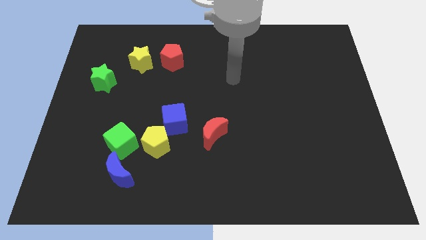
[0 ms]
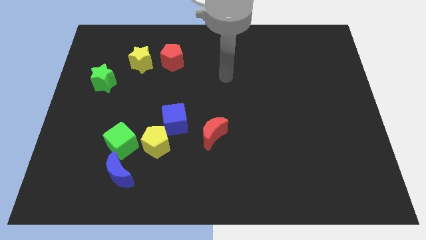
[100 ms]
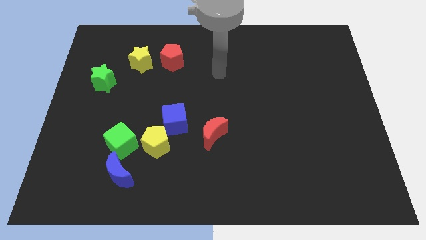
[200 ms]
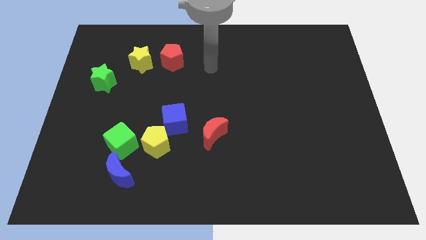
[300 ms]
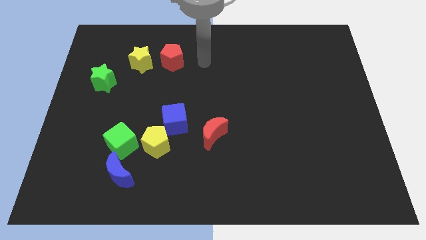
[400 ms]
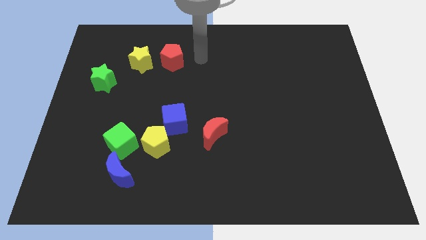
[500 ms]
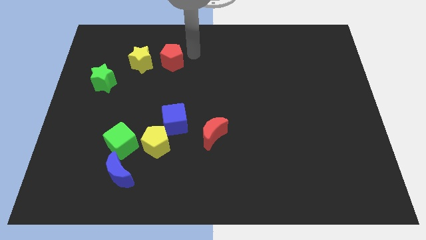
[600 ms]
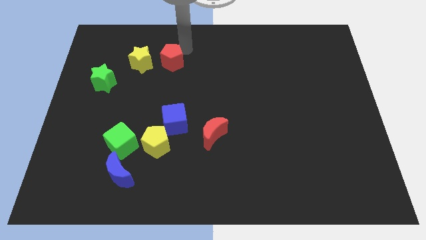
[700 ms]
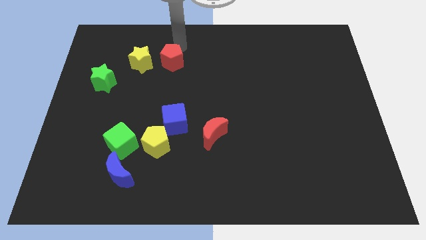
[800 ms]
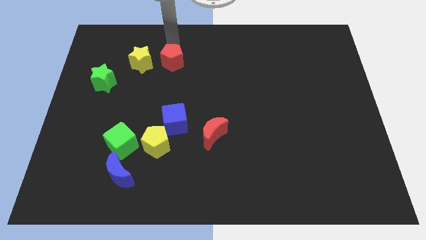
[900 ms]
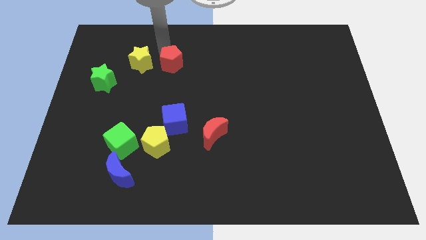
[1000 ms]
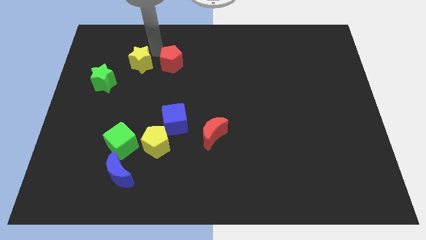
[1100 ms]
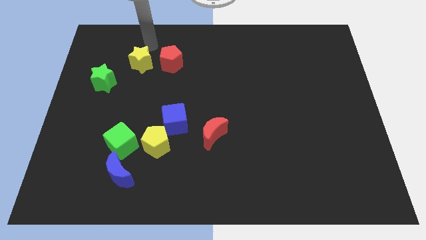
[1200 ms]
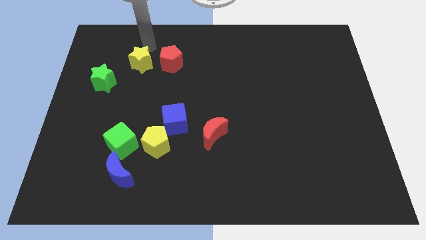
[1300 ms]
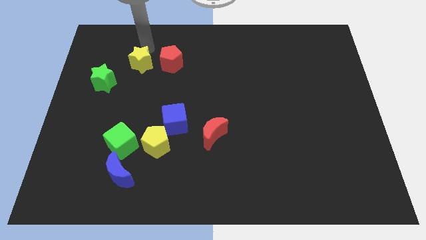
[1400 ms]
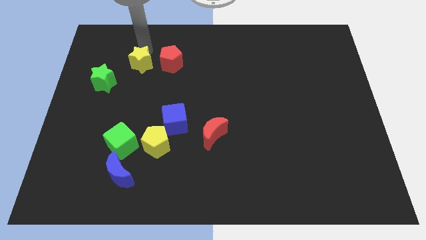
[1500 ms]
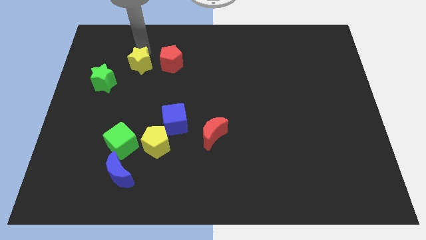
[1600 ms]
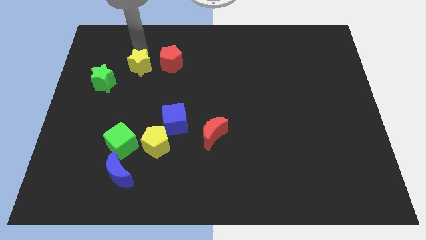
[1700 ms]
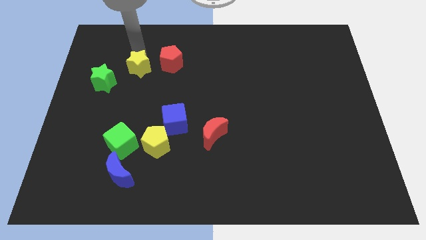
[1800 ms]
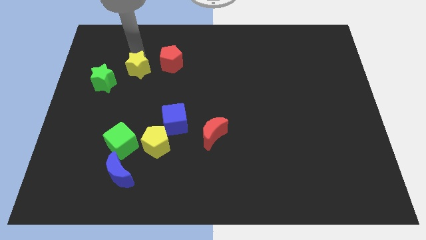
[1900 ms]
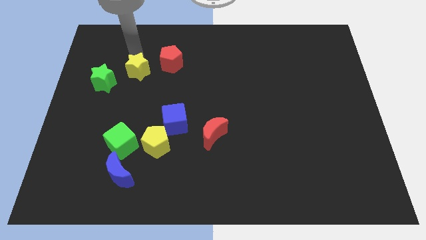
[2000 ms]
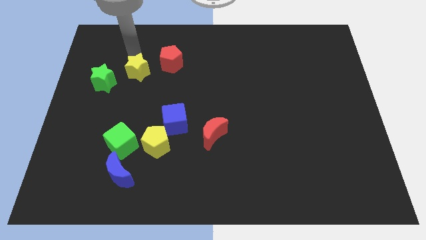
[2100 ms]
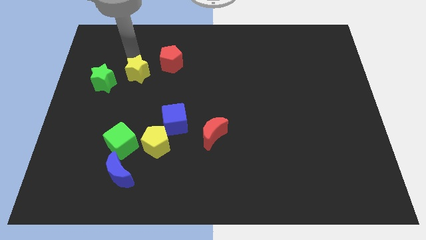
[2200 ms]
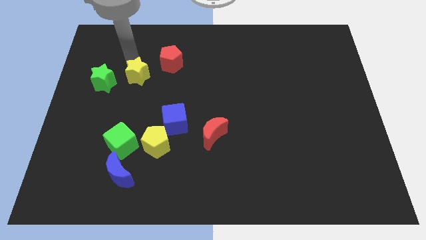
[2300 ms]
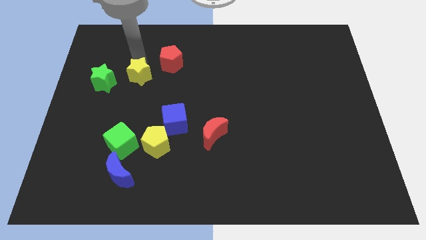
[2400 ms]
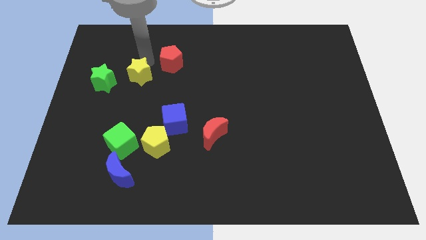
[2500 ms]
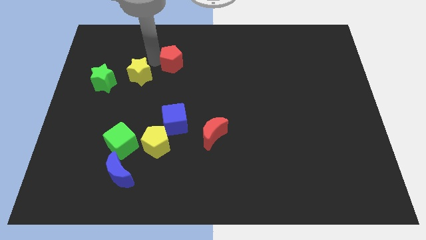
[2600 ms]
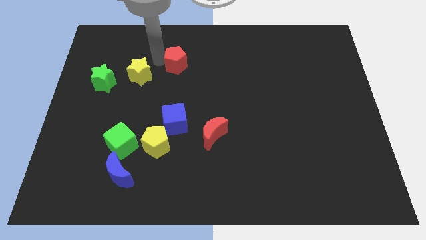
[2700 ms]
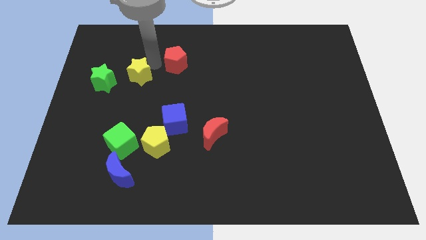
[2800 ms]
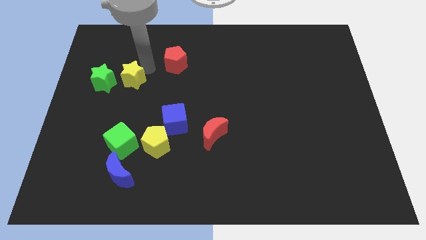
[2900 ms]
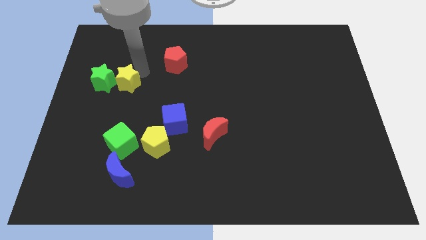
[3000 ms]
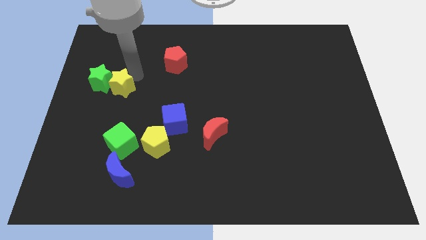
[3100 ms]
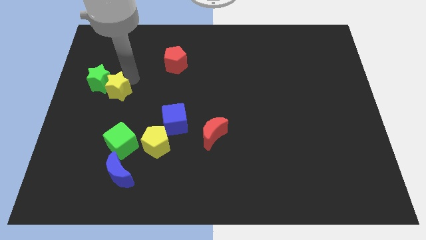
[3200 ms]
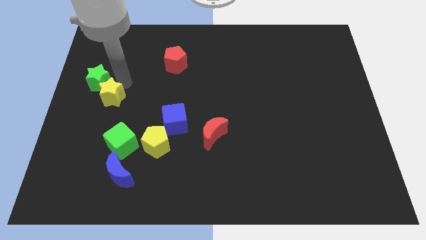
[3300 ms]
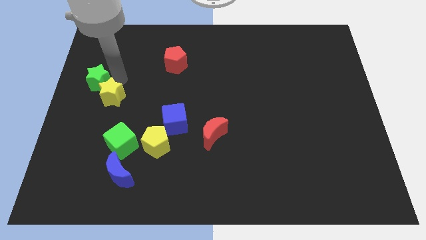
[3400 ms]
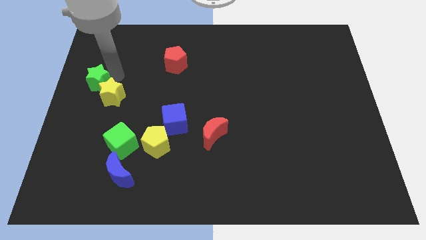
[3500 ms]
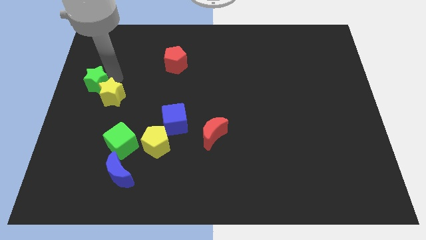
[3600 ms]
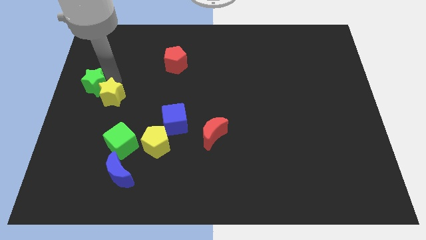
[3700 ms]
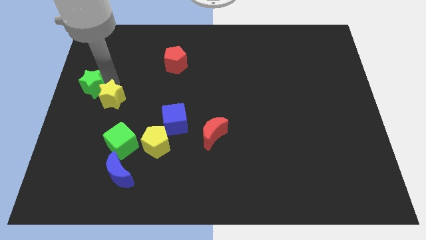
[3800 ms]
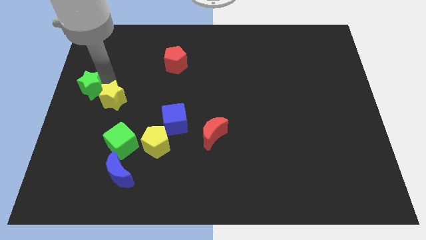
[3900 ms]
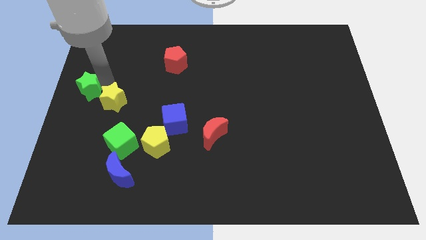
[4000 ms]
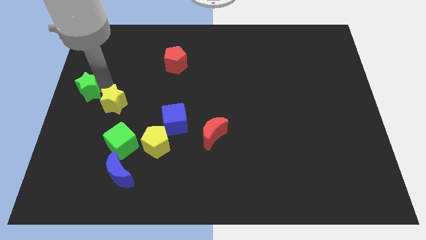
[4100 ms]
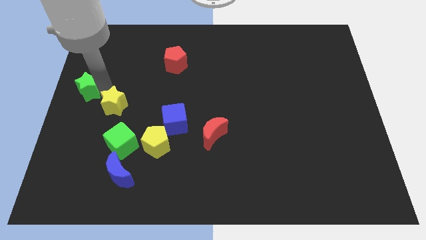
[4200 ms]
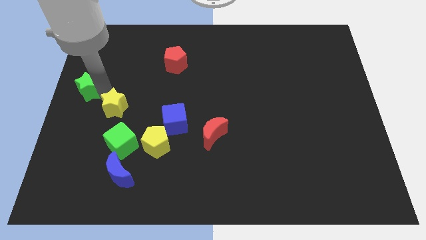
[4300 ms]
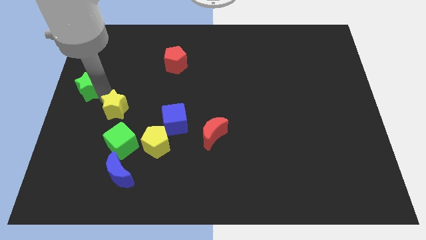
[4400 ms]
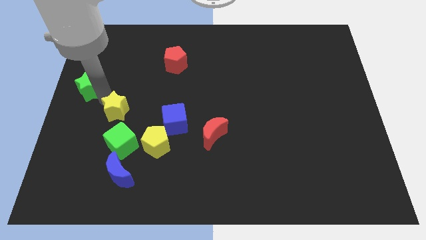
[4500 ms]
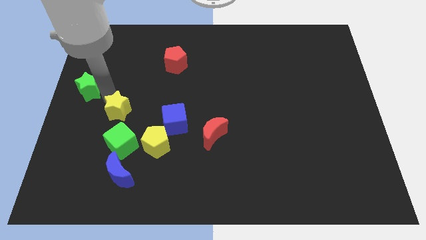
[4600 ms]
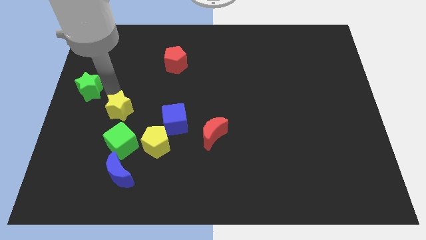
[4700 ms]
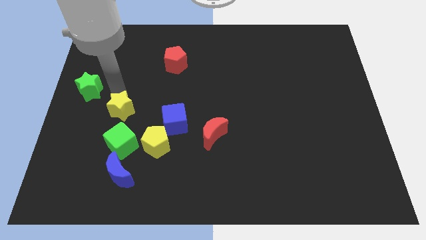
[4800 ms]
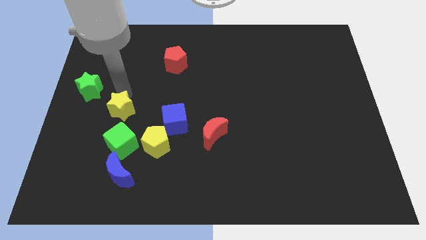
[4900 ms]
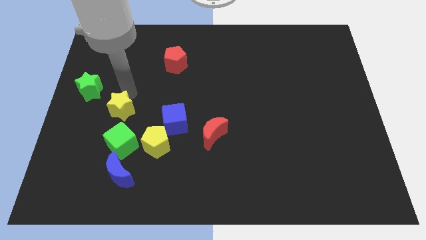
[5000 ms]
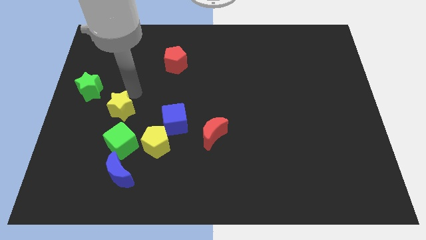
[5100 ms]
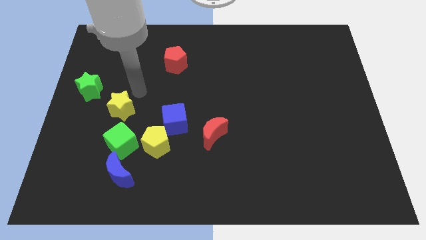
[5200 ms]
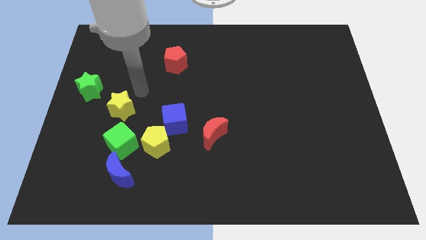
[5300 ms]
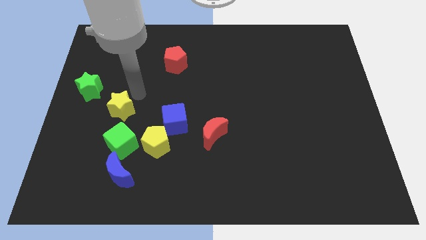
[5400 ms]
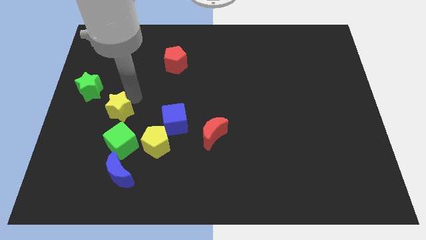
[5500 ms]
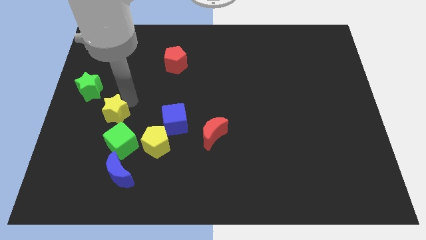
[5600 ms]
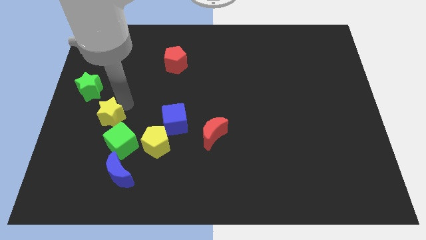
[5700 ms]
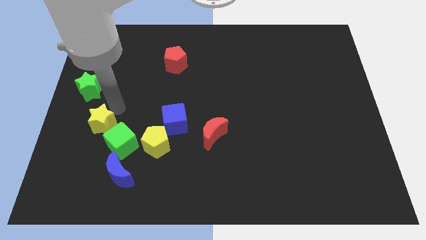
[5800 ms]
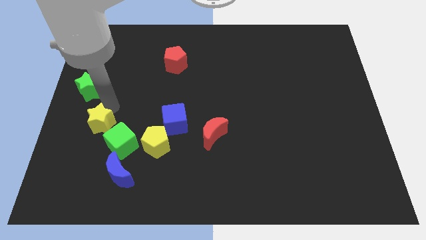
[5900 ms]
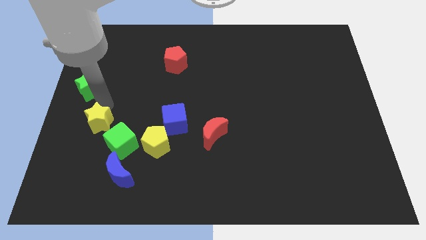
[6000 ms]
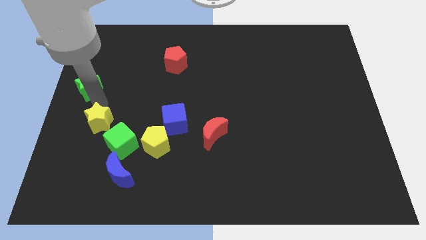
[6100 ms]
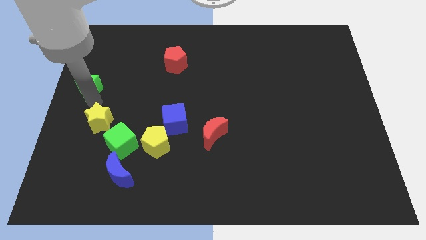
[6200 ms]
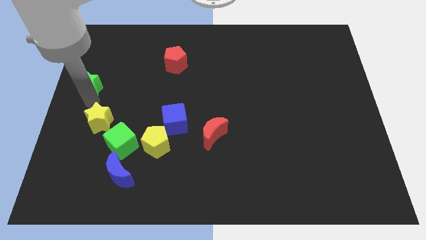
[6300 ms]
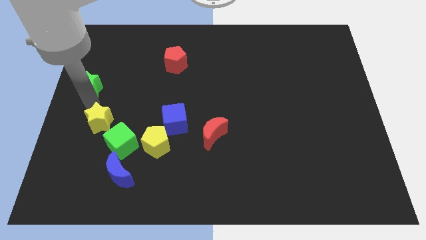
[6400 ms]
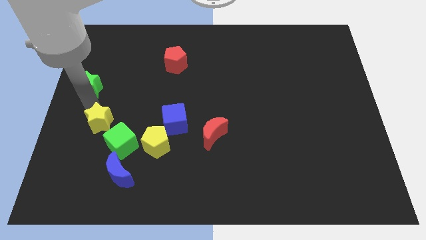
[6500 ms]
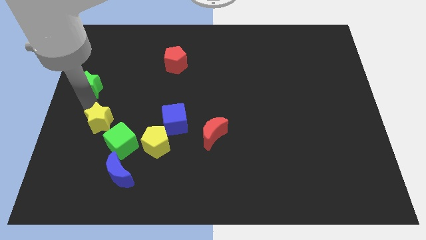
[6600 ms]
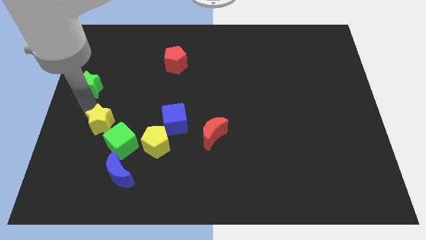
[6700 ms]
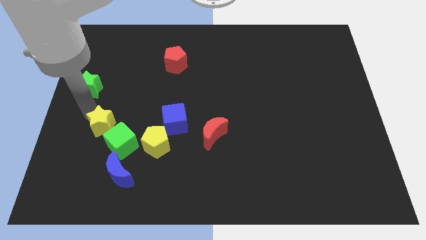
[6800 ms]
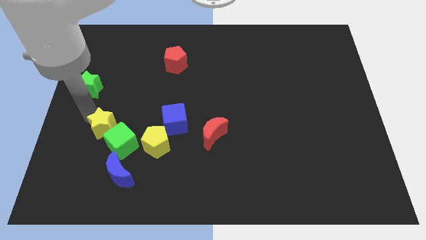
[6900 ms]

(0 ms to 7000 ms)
put the yellow star left of the yellow pentagon
